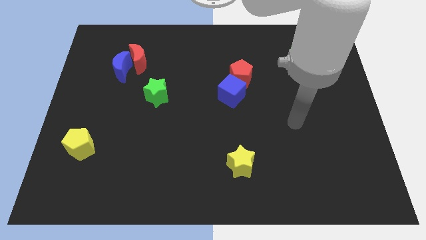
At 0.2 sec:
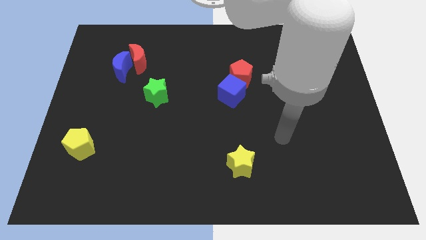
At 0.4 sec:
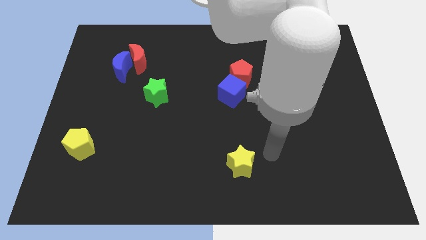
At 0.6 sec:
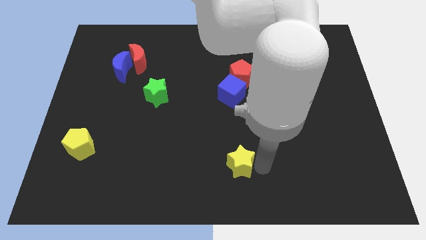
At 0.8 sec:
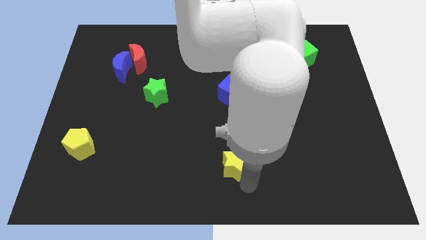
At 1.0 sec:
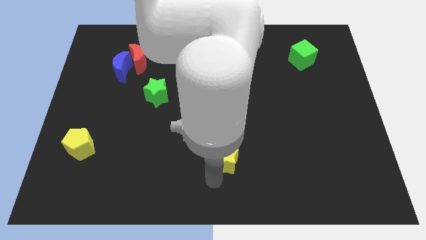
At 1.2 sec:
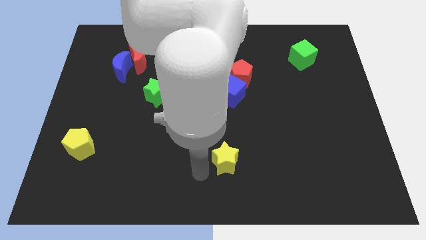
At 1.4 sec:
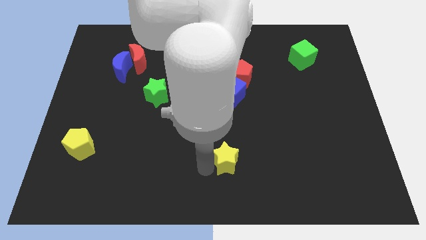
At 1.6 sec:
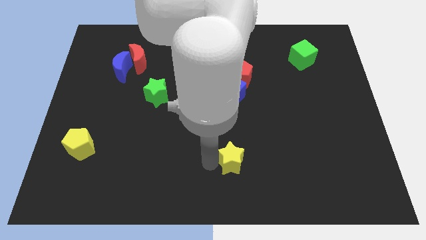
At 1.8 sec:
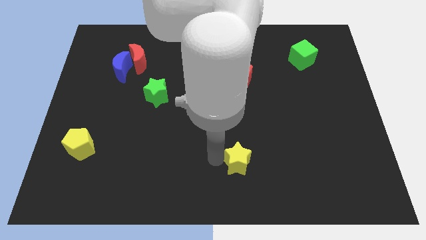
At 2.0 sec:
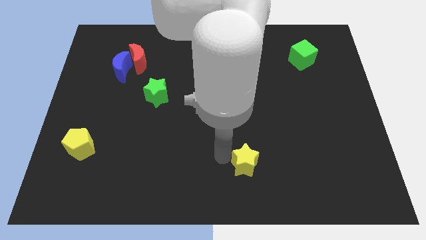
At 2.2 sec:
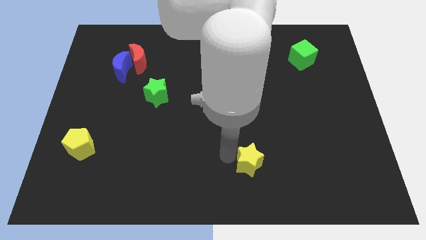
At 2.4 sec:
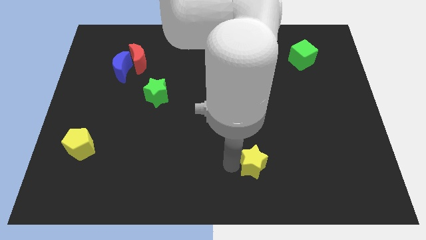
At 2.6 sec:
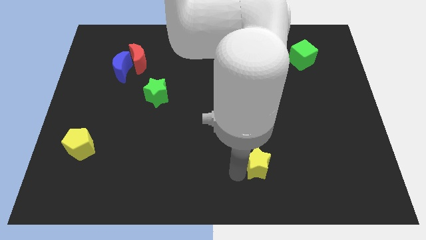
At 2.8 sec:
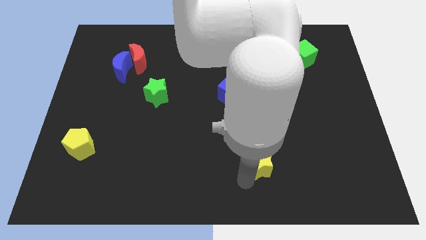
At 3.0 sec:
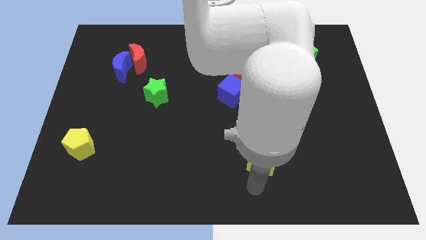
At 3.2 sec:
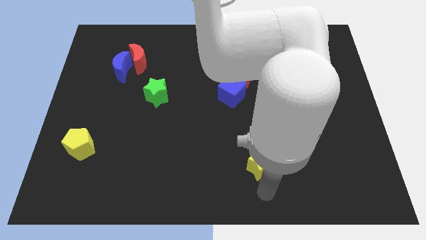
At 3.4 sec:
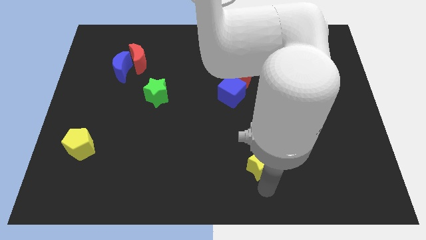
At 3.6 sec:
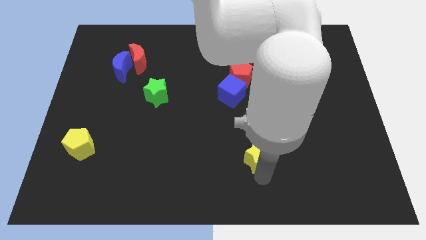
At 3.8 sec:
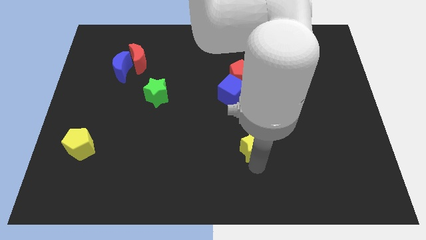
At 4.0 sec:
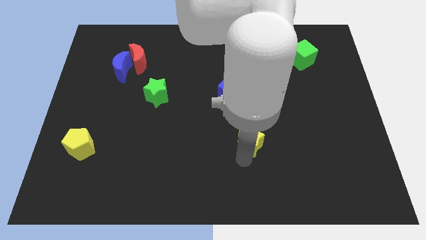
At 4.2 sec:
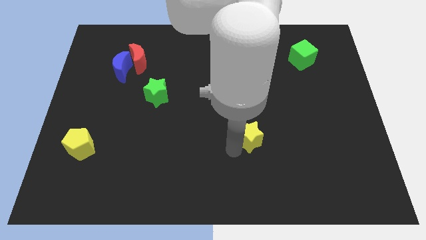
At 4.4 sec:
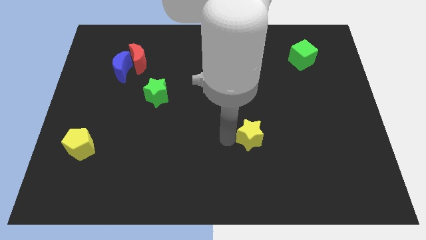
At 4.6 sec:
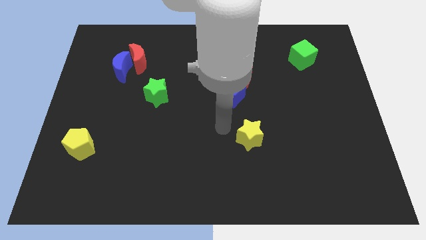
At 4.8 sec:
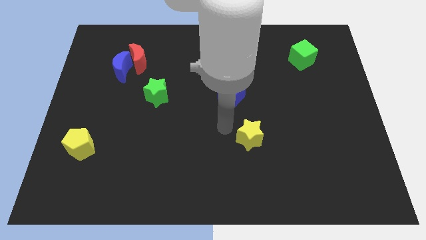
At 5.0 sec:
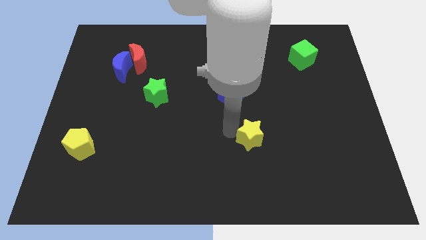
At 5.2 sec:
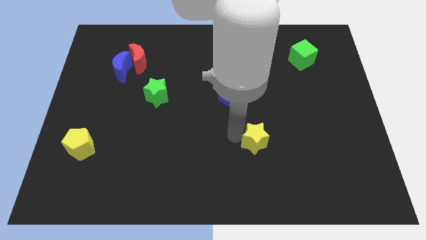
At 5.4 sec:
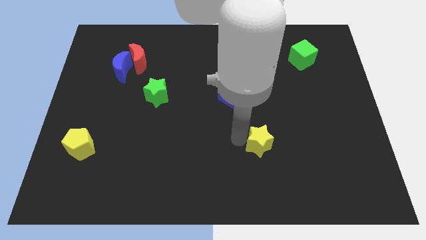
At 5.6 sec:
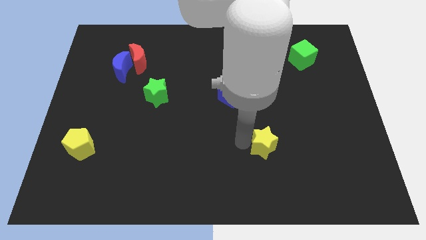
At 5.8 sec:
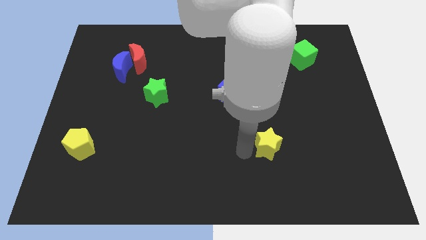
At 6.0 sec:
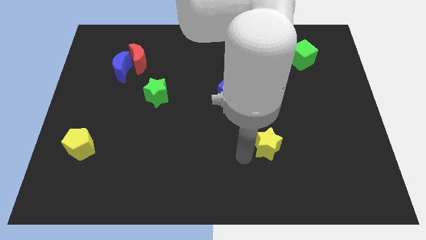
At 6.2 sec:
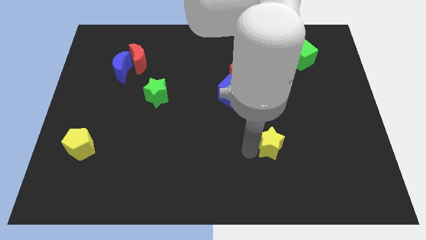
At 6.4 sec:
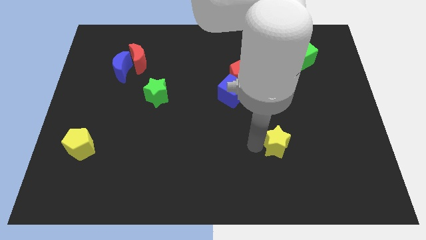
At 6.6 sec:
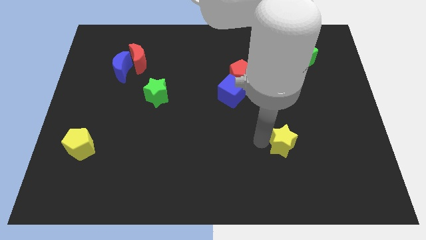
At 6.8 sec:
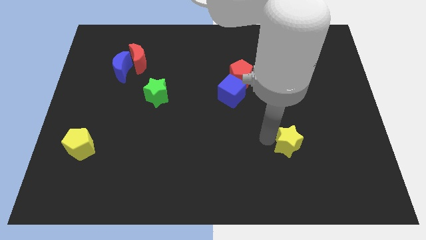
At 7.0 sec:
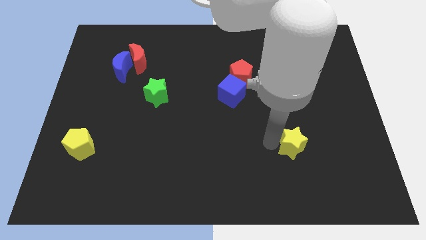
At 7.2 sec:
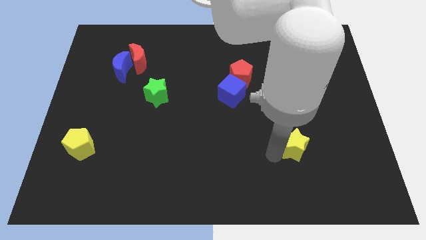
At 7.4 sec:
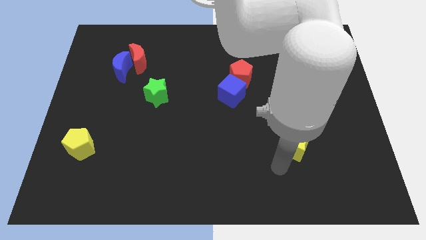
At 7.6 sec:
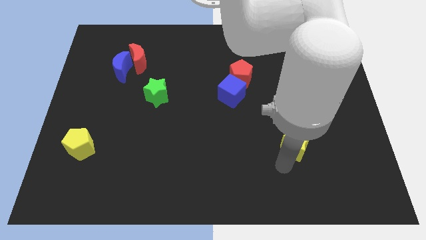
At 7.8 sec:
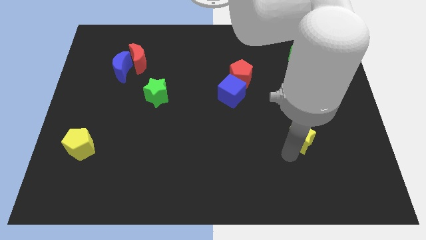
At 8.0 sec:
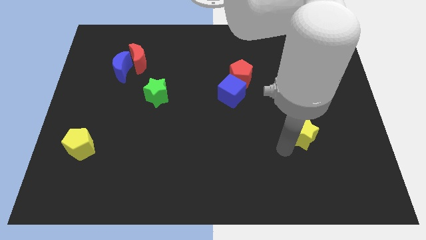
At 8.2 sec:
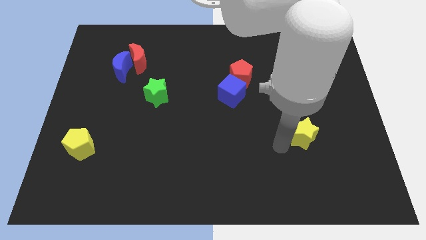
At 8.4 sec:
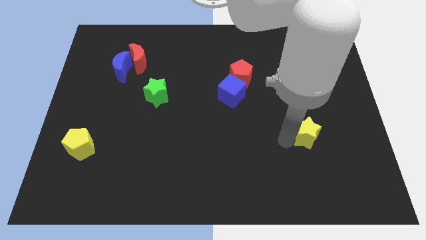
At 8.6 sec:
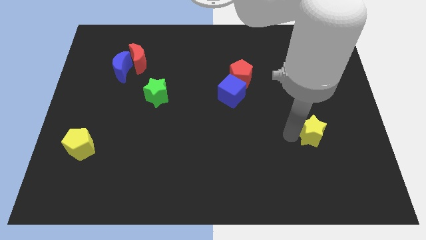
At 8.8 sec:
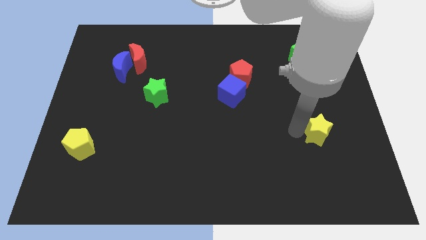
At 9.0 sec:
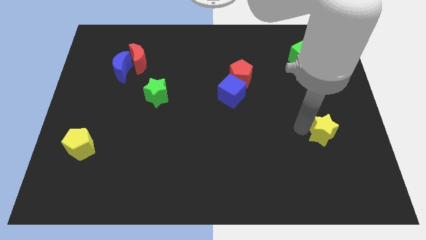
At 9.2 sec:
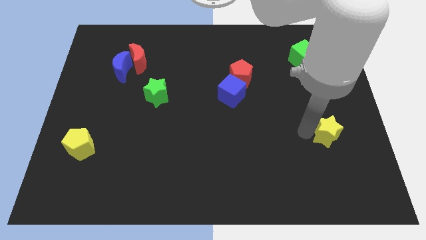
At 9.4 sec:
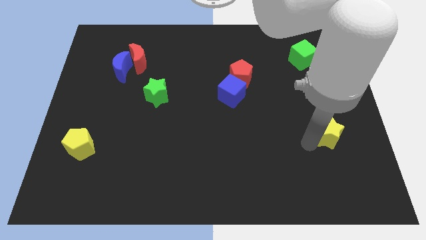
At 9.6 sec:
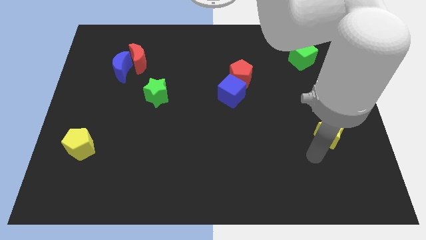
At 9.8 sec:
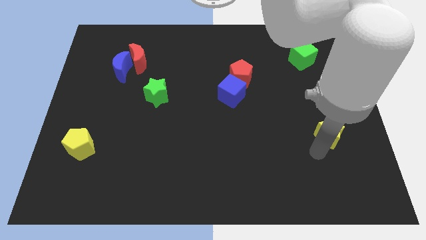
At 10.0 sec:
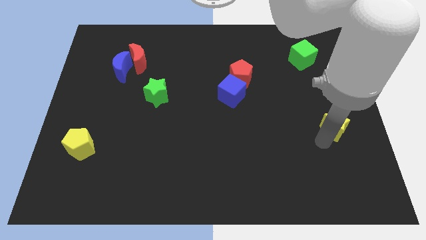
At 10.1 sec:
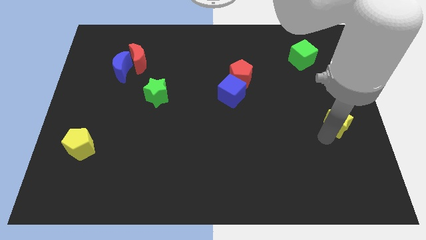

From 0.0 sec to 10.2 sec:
move the yellow star to the right side of the board

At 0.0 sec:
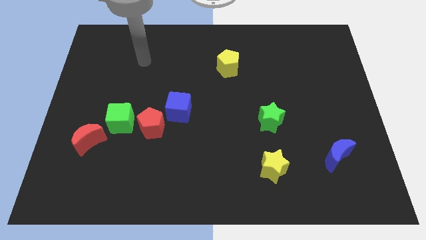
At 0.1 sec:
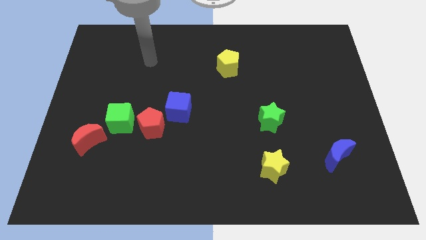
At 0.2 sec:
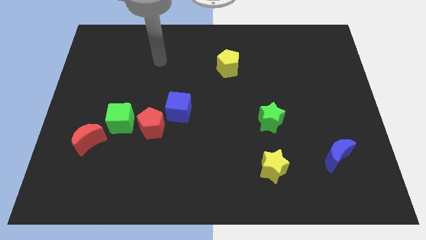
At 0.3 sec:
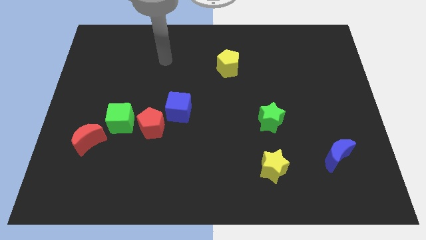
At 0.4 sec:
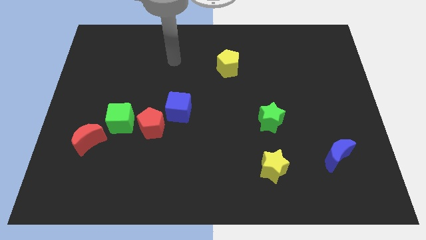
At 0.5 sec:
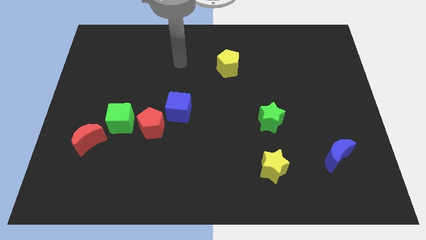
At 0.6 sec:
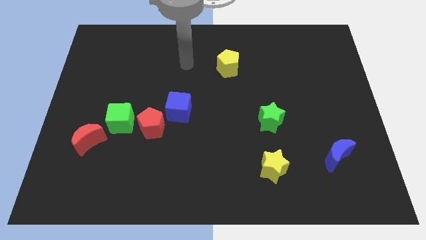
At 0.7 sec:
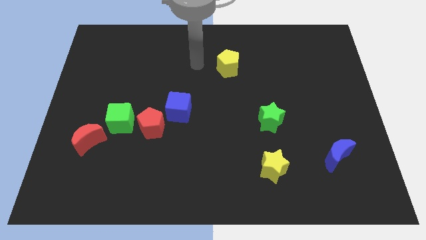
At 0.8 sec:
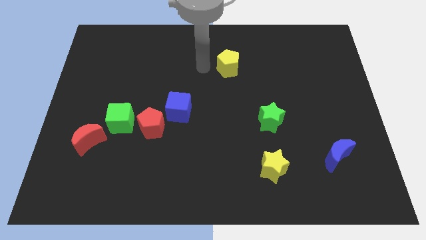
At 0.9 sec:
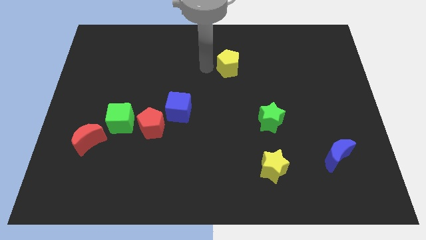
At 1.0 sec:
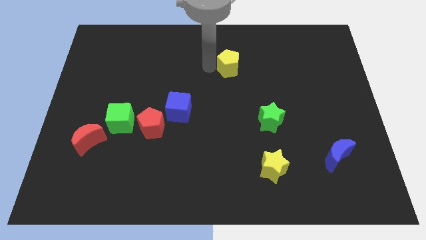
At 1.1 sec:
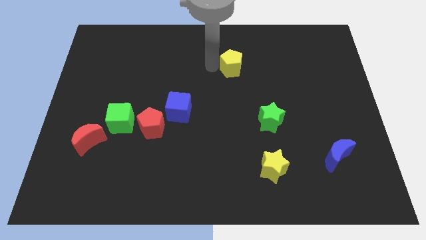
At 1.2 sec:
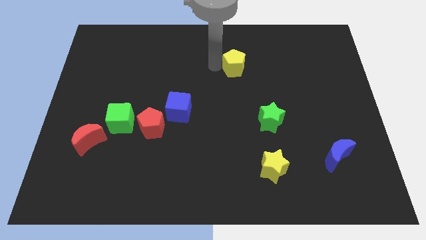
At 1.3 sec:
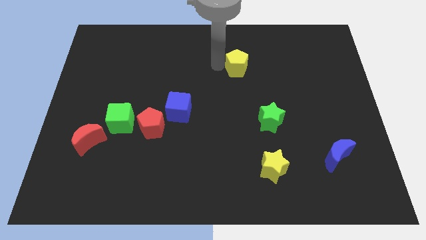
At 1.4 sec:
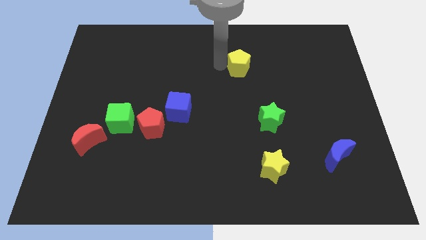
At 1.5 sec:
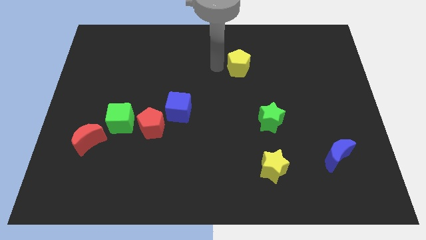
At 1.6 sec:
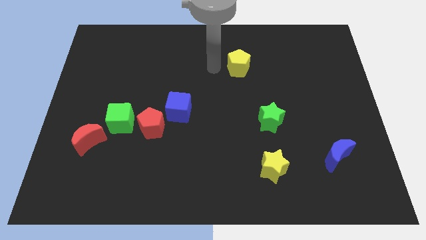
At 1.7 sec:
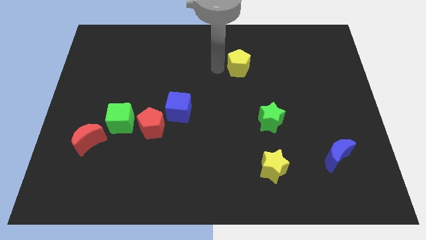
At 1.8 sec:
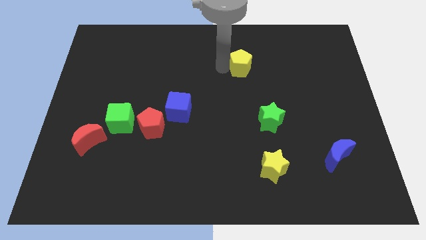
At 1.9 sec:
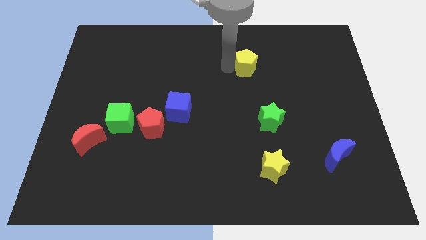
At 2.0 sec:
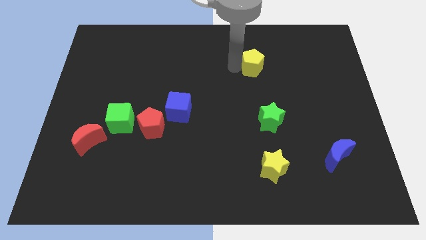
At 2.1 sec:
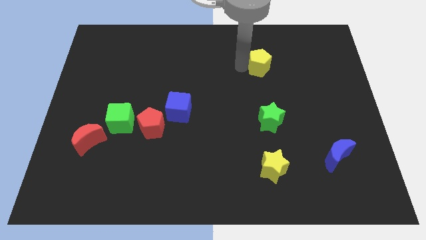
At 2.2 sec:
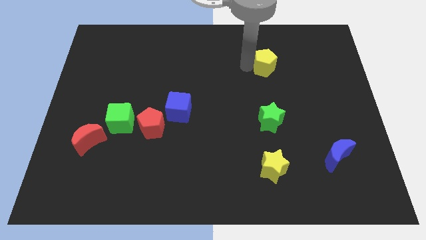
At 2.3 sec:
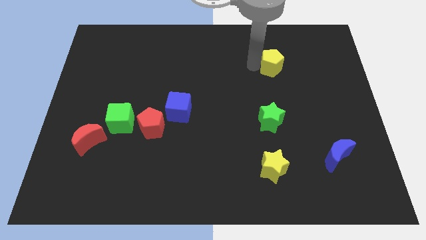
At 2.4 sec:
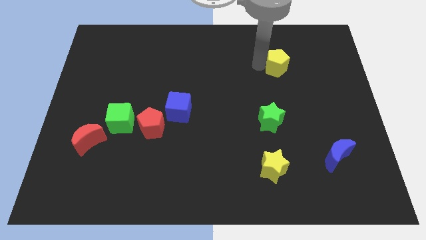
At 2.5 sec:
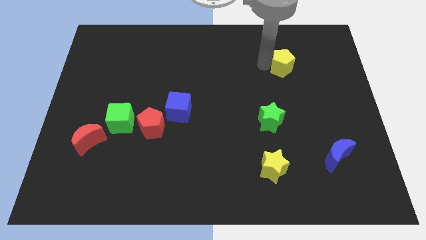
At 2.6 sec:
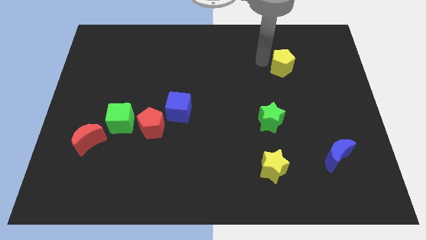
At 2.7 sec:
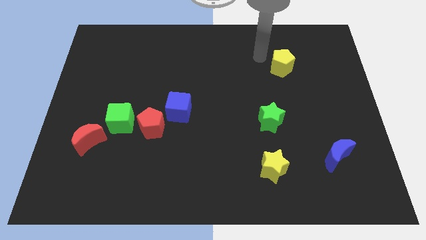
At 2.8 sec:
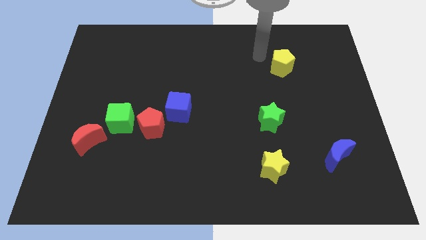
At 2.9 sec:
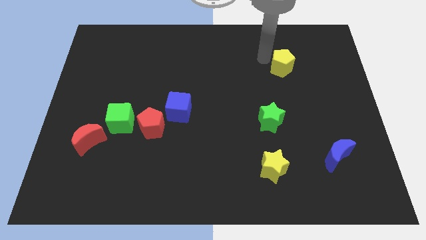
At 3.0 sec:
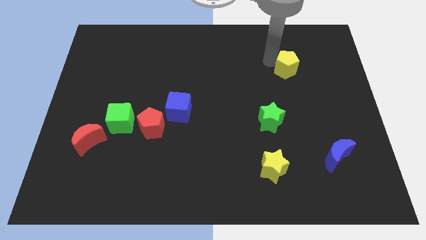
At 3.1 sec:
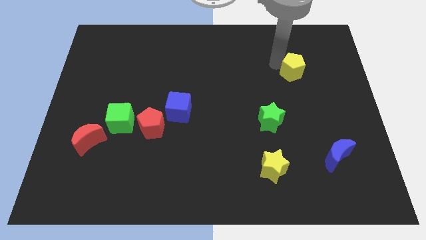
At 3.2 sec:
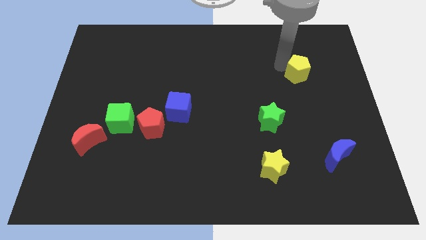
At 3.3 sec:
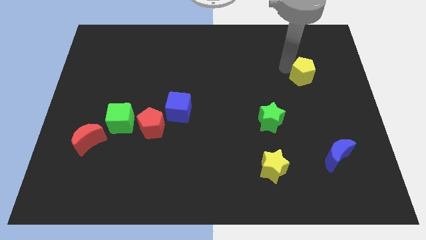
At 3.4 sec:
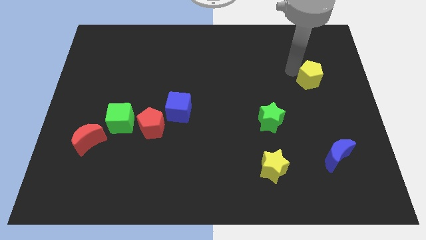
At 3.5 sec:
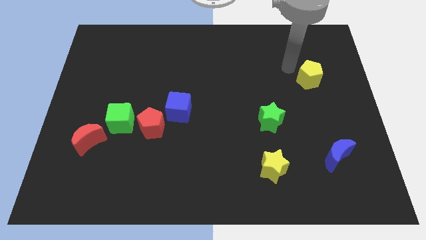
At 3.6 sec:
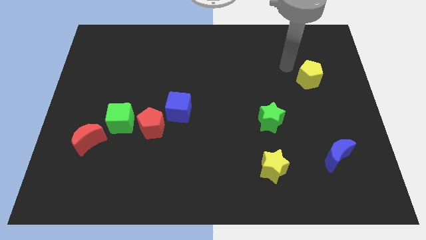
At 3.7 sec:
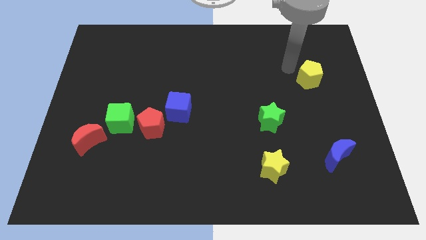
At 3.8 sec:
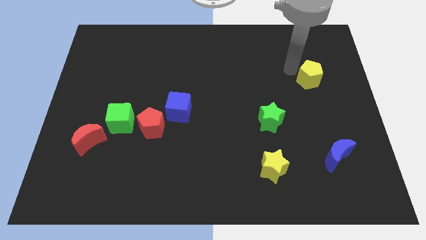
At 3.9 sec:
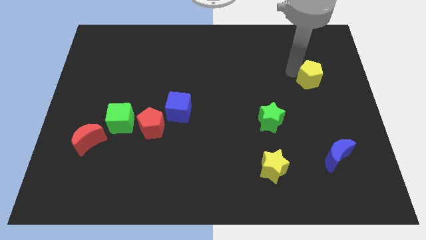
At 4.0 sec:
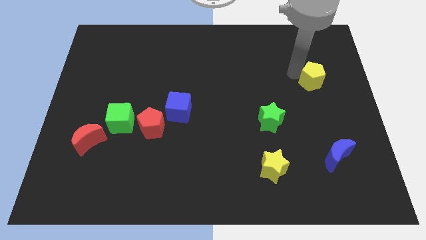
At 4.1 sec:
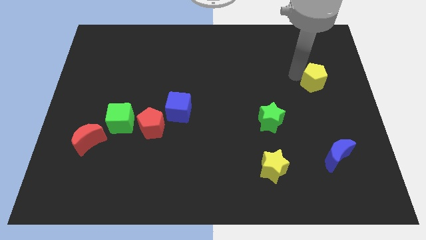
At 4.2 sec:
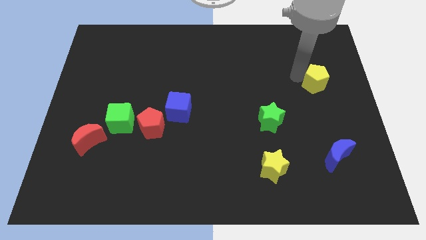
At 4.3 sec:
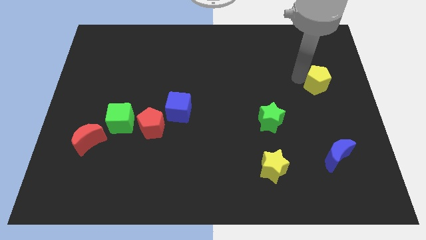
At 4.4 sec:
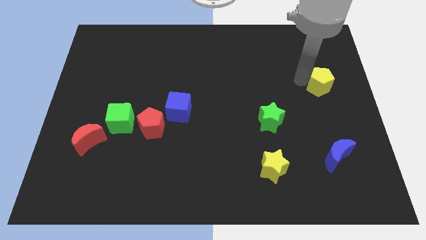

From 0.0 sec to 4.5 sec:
put the yellow pentagon to the center right
